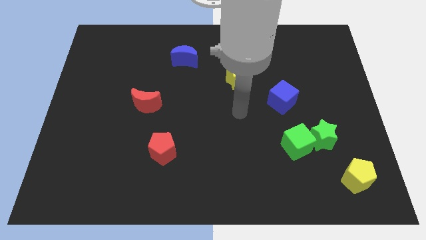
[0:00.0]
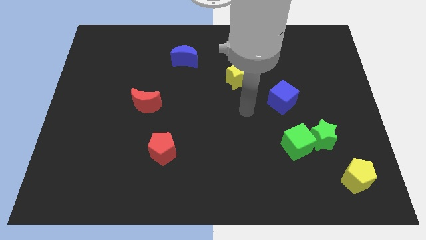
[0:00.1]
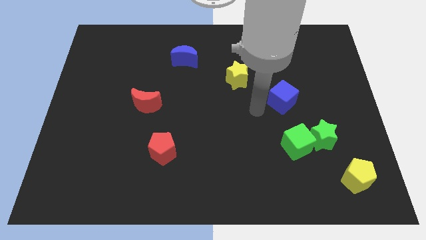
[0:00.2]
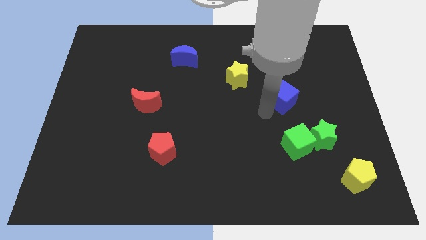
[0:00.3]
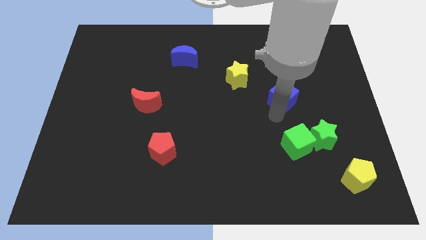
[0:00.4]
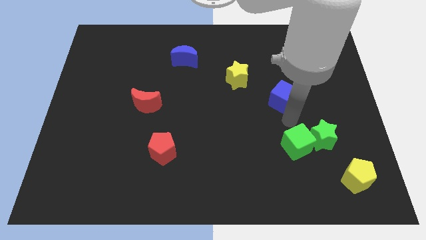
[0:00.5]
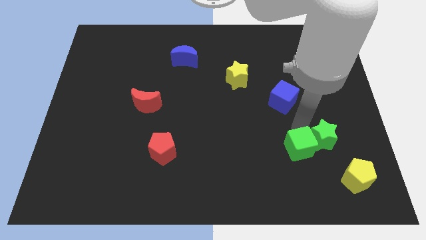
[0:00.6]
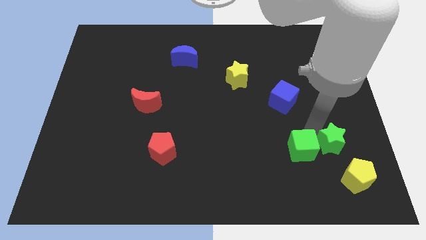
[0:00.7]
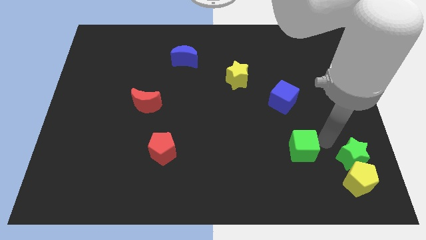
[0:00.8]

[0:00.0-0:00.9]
move the green cube away from the green star

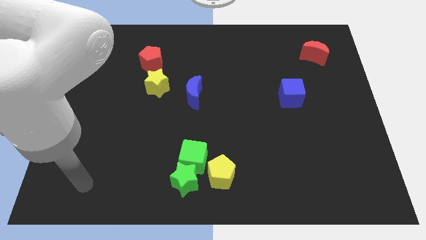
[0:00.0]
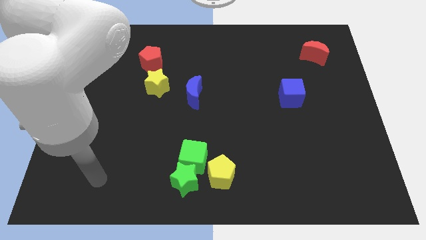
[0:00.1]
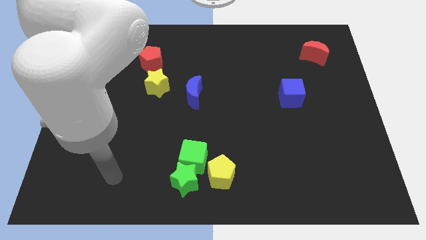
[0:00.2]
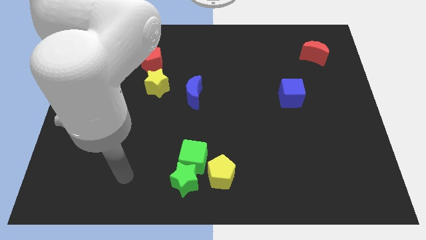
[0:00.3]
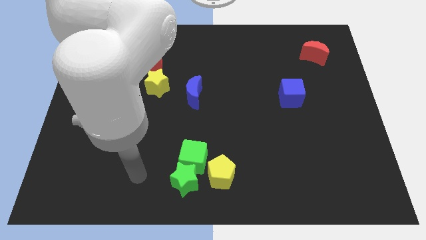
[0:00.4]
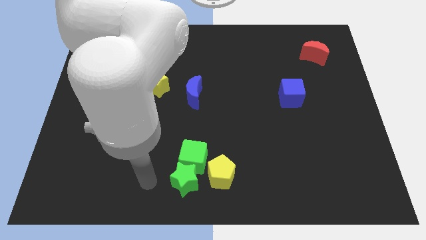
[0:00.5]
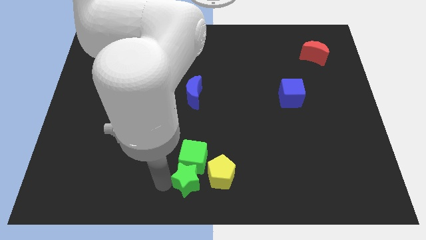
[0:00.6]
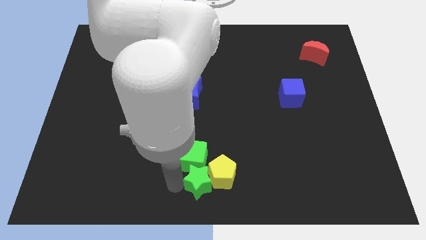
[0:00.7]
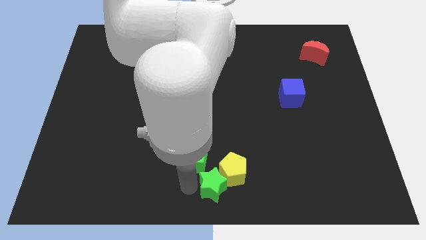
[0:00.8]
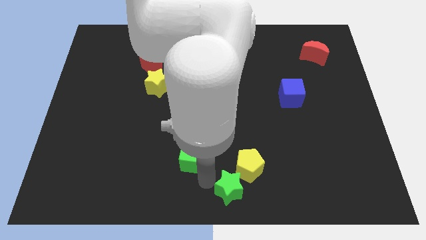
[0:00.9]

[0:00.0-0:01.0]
separate the green cube from the green star and yellow pentagon
